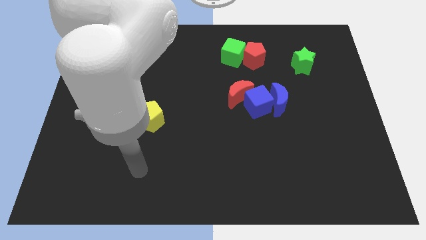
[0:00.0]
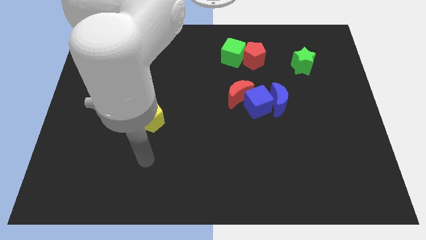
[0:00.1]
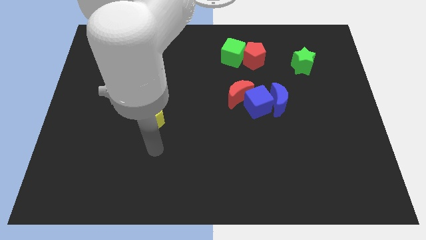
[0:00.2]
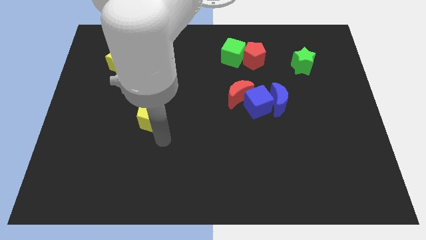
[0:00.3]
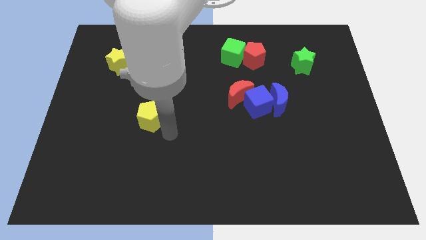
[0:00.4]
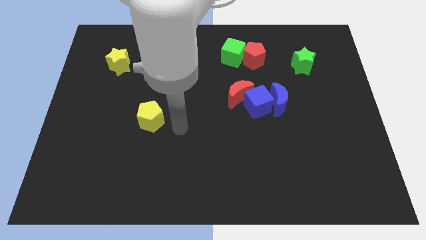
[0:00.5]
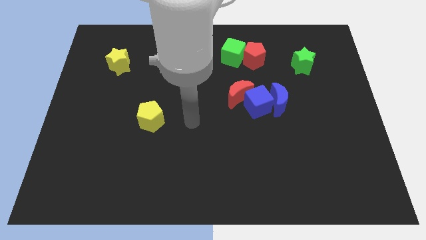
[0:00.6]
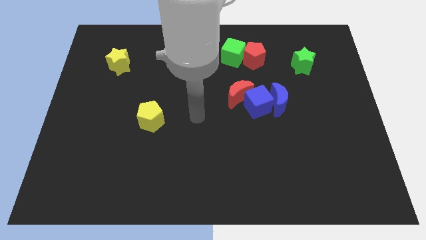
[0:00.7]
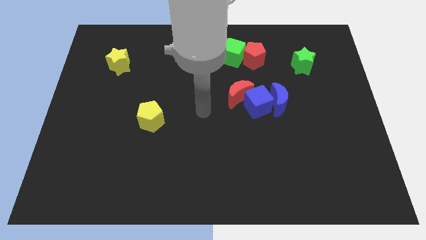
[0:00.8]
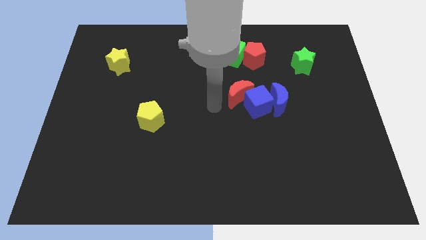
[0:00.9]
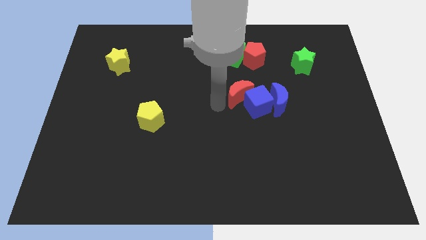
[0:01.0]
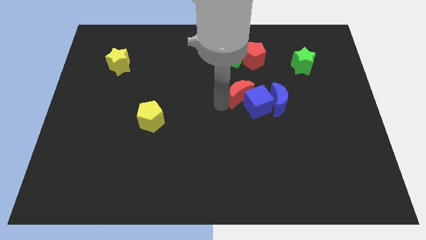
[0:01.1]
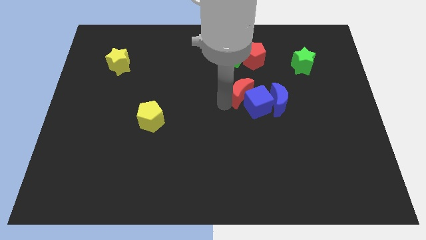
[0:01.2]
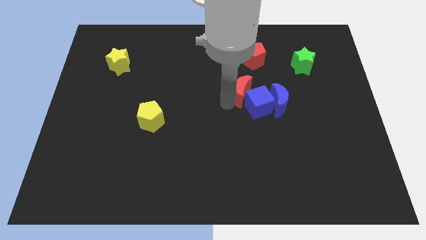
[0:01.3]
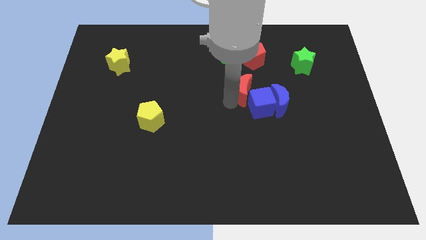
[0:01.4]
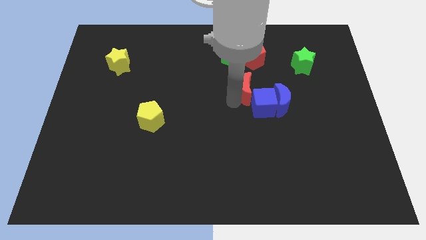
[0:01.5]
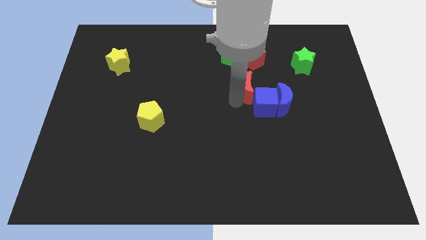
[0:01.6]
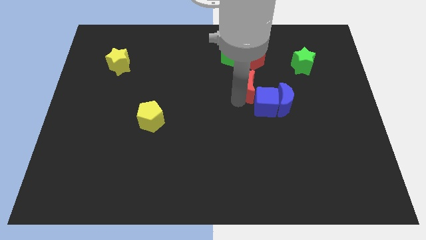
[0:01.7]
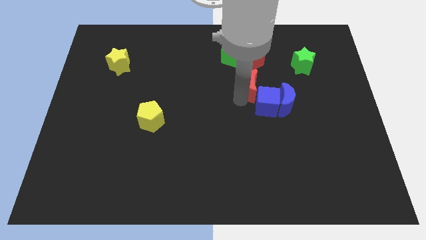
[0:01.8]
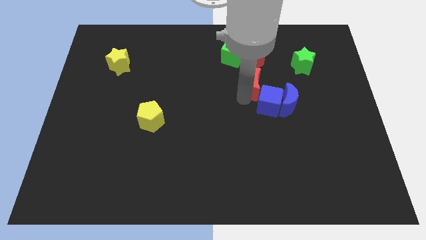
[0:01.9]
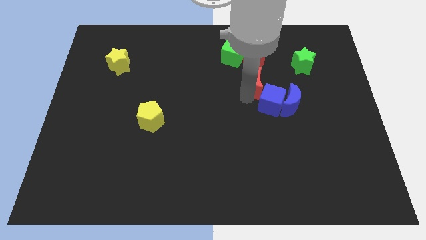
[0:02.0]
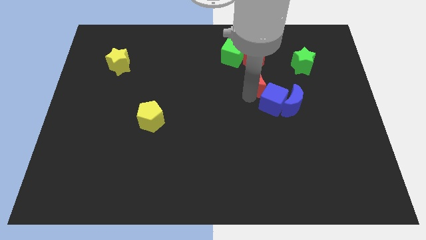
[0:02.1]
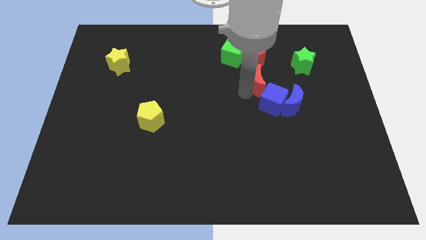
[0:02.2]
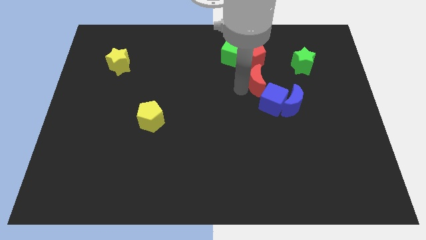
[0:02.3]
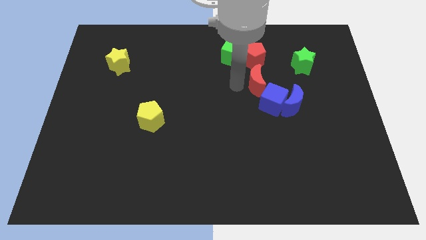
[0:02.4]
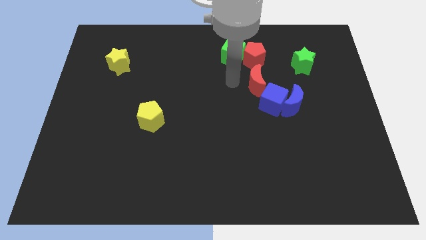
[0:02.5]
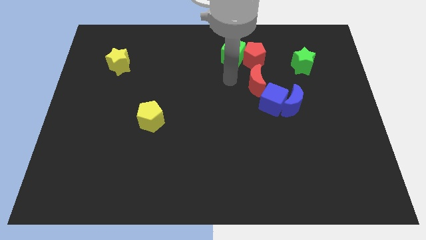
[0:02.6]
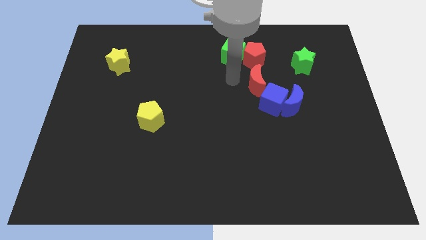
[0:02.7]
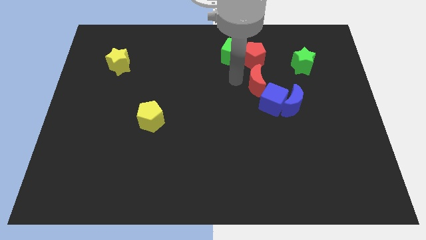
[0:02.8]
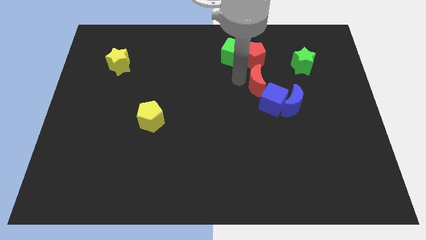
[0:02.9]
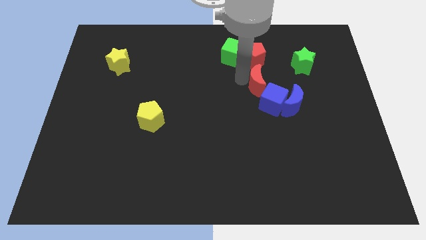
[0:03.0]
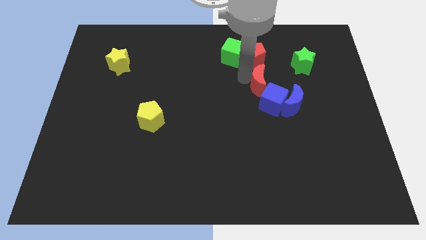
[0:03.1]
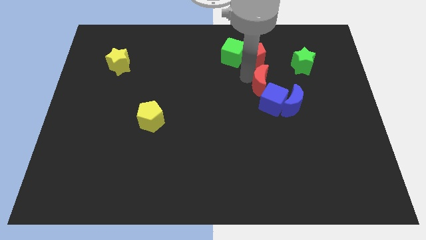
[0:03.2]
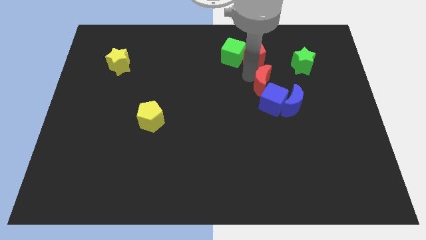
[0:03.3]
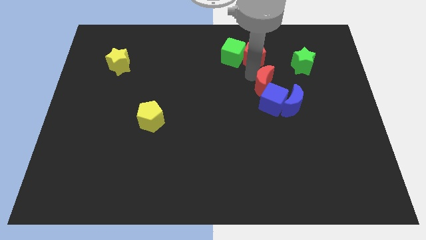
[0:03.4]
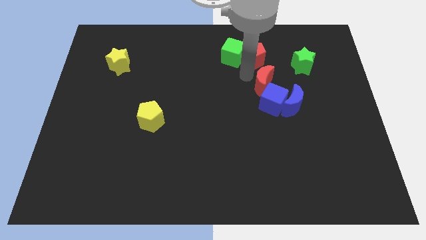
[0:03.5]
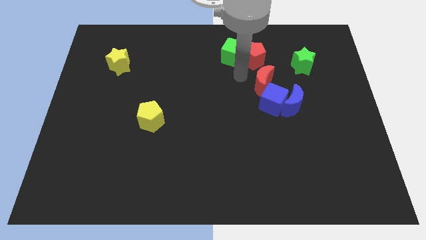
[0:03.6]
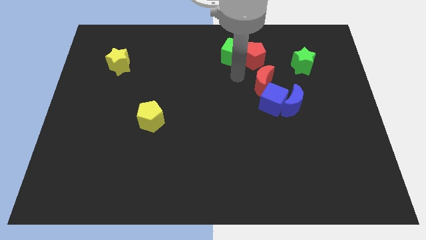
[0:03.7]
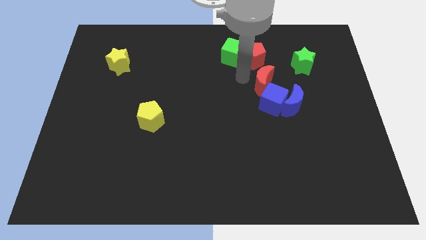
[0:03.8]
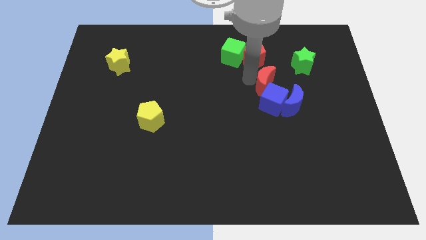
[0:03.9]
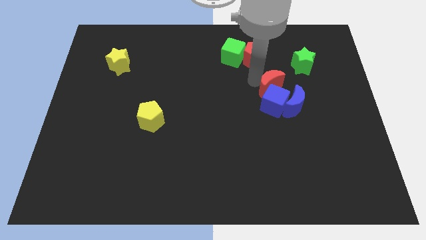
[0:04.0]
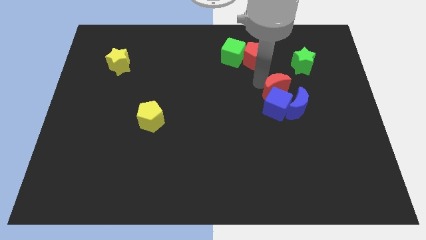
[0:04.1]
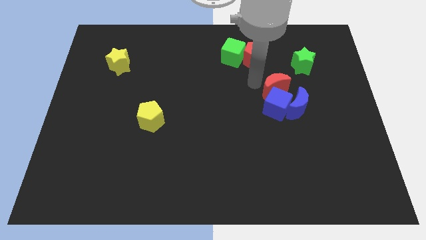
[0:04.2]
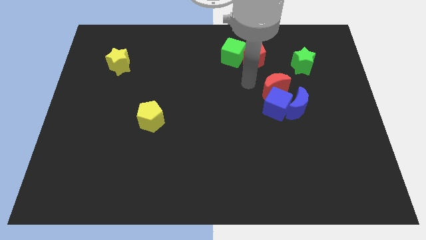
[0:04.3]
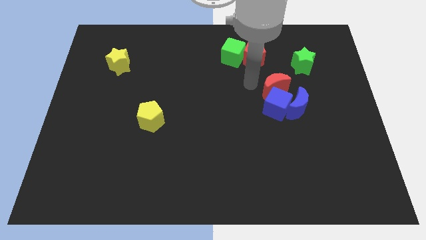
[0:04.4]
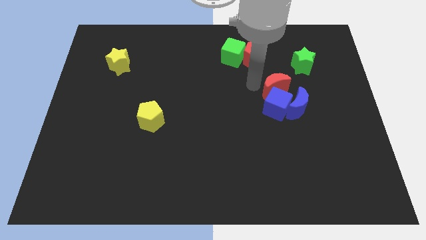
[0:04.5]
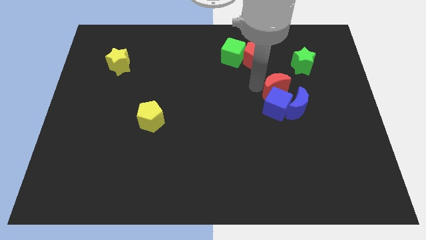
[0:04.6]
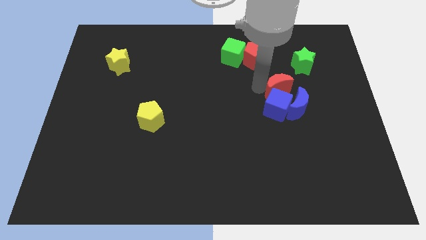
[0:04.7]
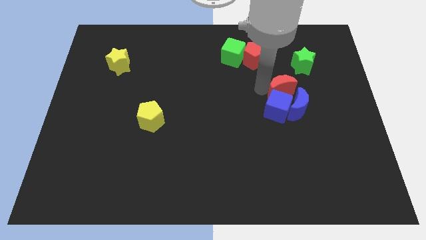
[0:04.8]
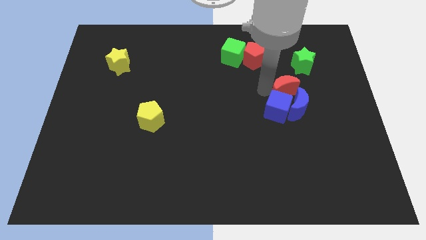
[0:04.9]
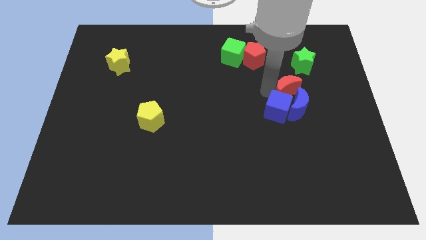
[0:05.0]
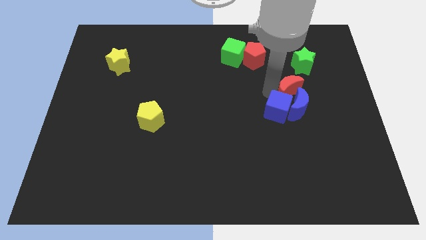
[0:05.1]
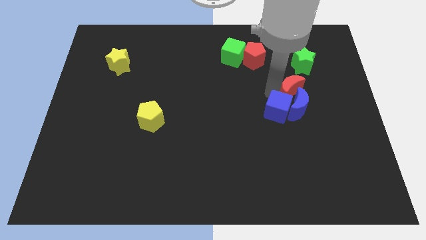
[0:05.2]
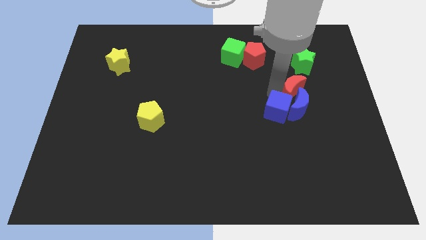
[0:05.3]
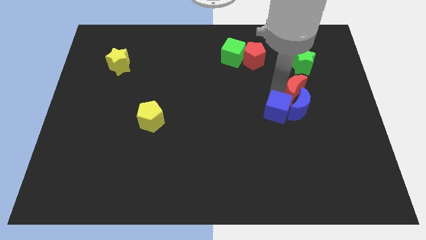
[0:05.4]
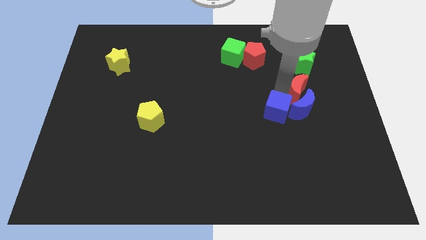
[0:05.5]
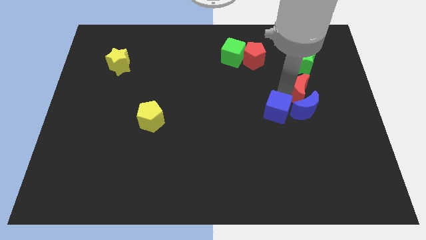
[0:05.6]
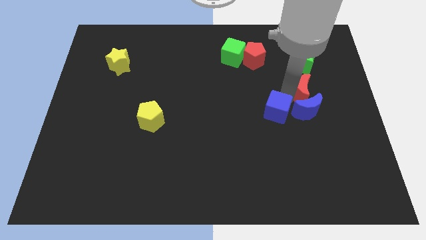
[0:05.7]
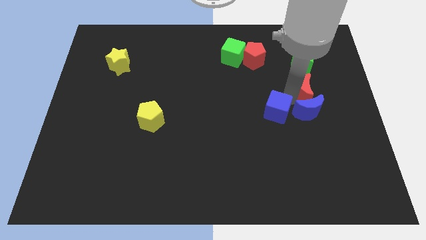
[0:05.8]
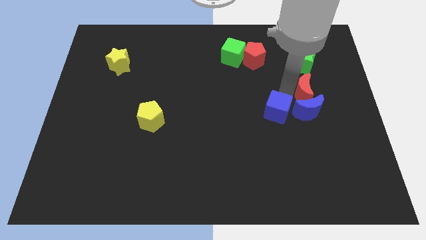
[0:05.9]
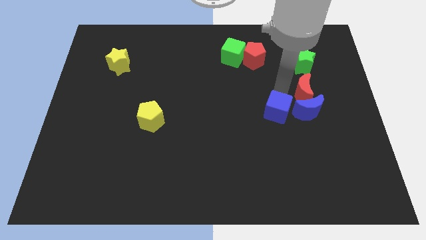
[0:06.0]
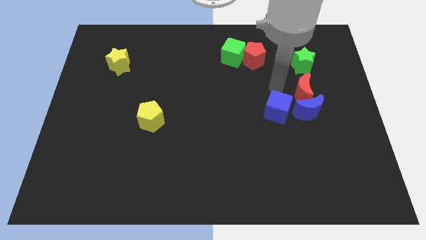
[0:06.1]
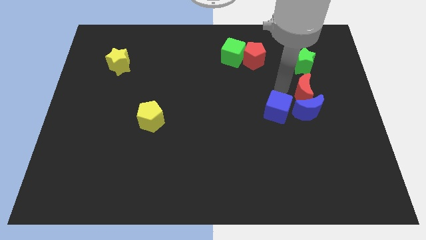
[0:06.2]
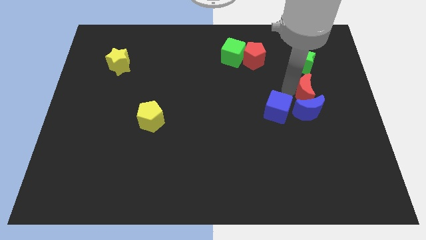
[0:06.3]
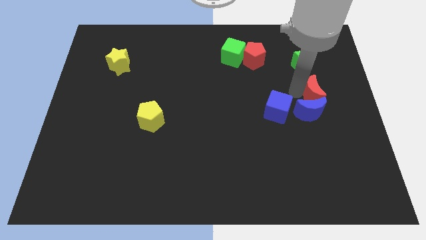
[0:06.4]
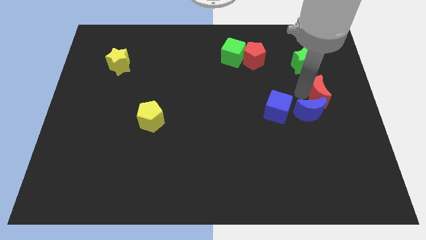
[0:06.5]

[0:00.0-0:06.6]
push the red moon to the center right
